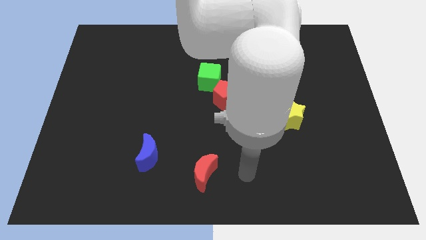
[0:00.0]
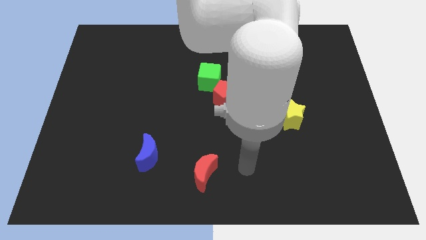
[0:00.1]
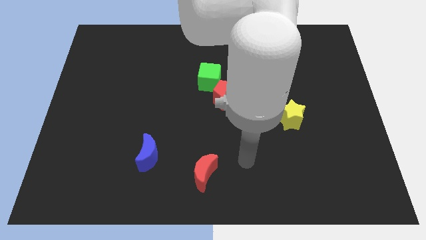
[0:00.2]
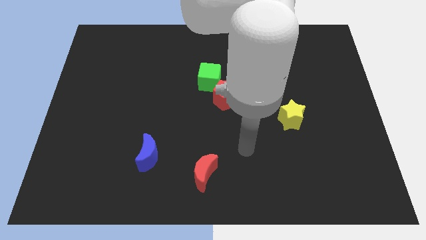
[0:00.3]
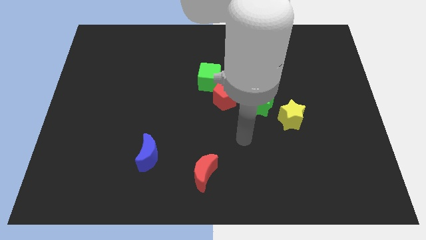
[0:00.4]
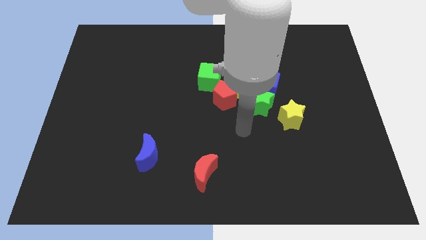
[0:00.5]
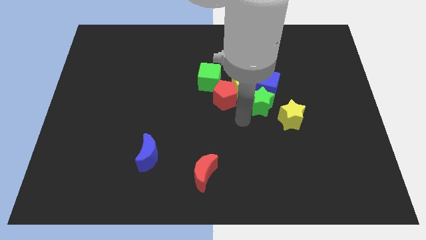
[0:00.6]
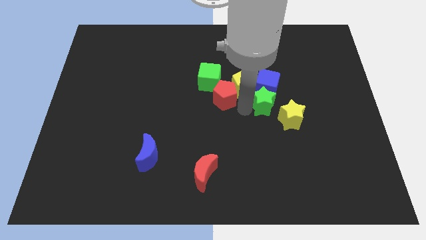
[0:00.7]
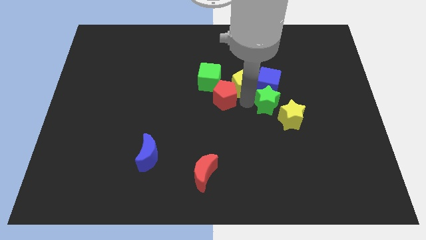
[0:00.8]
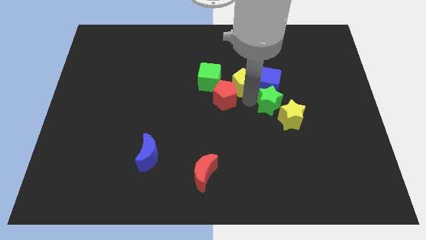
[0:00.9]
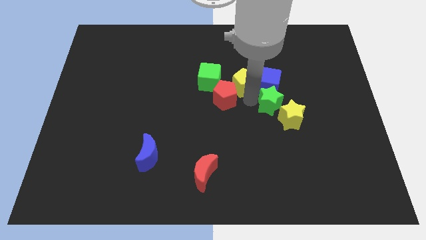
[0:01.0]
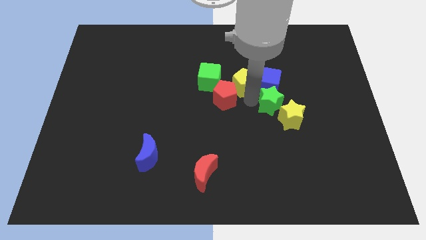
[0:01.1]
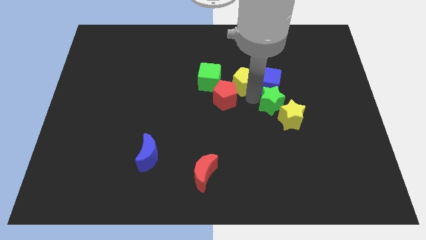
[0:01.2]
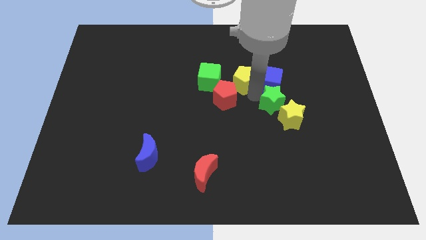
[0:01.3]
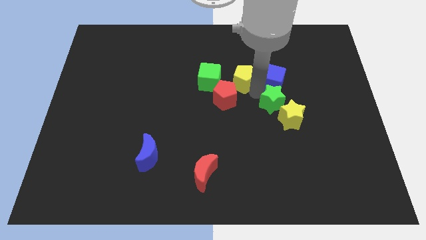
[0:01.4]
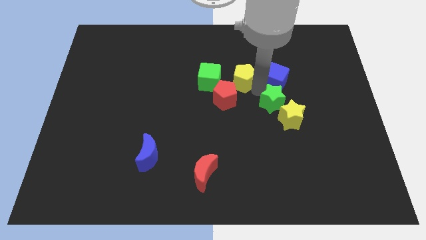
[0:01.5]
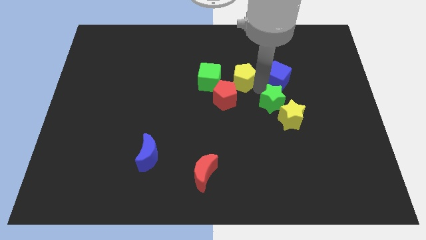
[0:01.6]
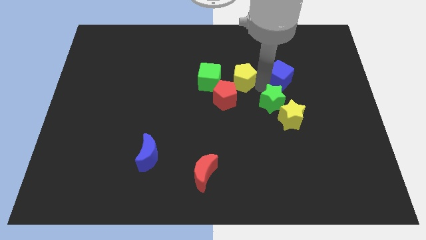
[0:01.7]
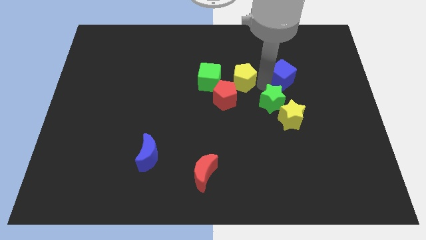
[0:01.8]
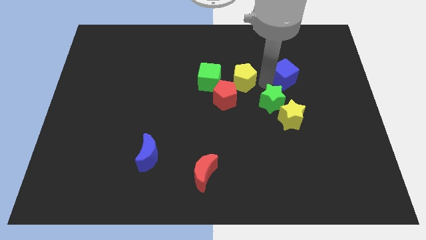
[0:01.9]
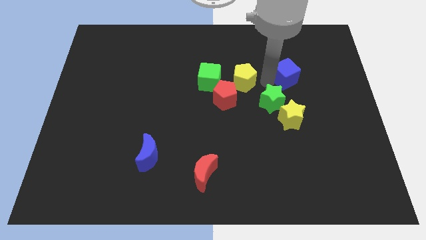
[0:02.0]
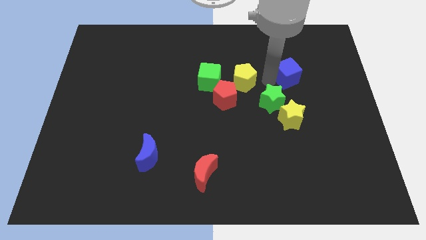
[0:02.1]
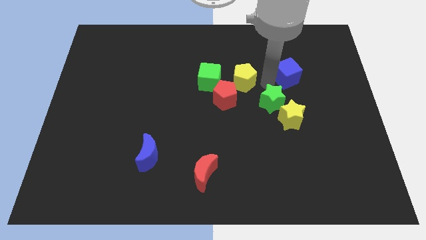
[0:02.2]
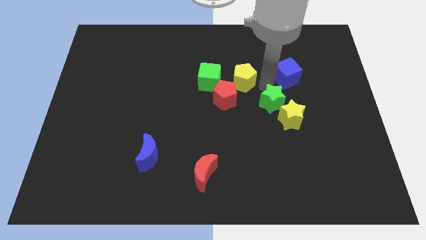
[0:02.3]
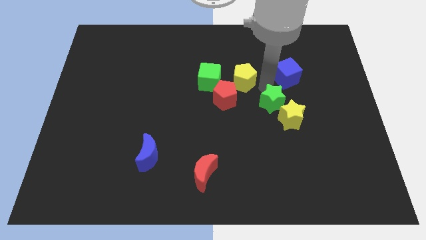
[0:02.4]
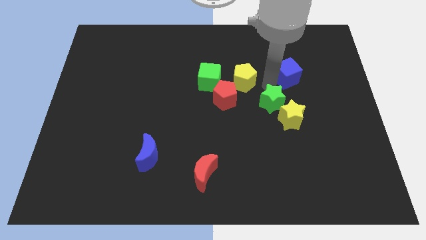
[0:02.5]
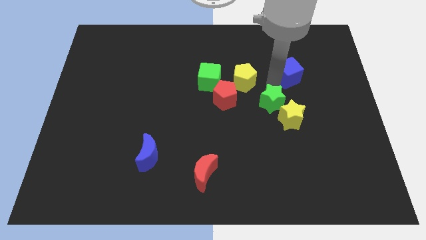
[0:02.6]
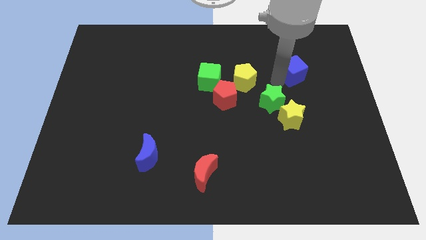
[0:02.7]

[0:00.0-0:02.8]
move the blue cube away from the yellow pentagon and green star

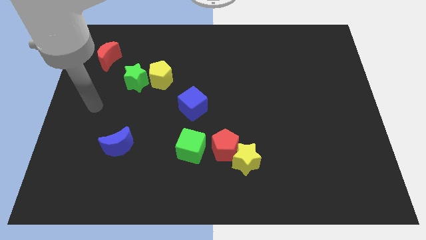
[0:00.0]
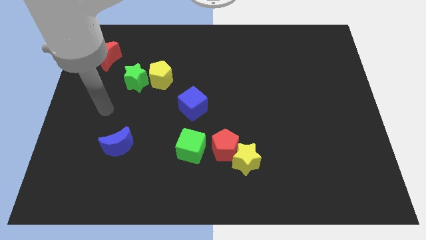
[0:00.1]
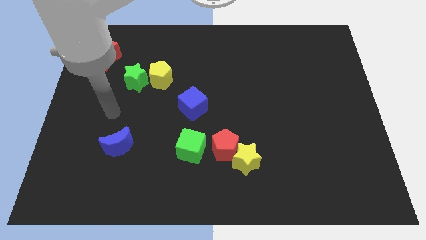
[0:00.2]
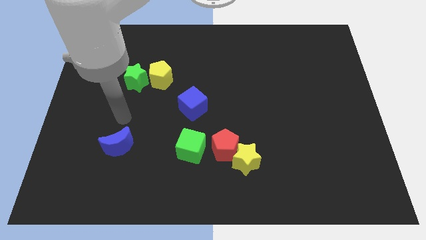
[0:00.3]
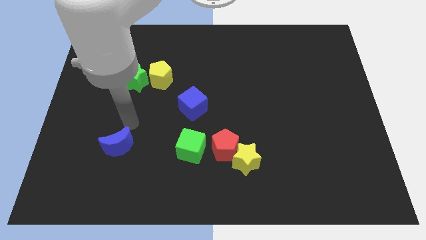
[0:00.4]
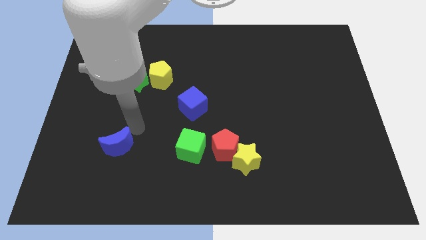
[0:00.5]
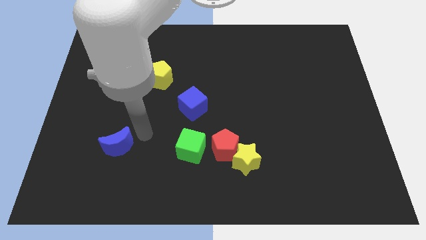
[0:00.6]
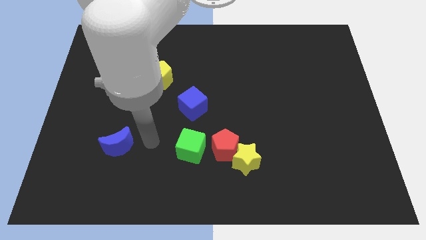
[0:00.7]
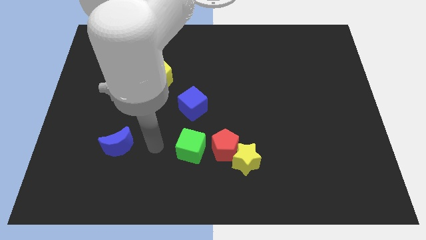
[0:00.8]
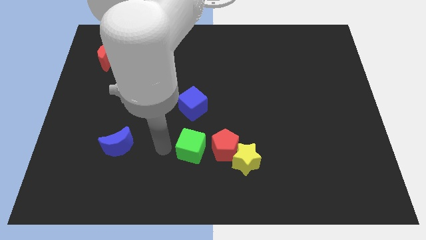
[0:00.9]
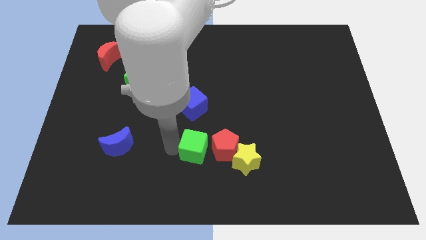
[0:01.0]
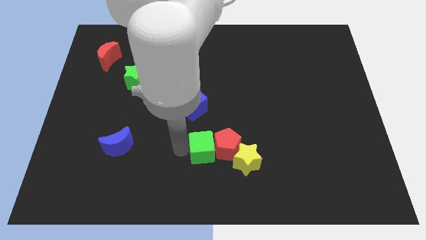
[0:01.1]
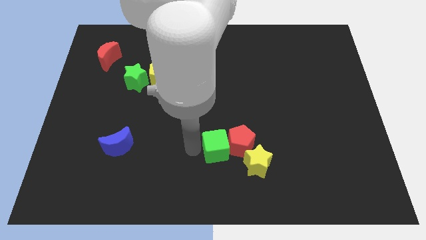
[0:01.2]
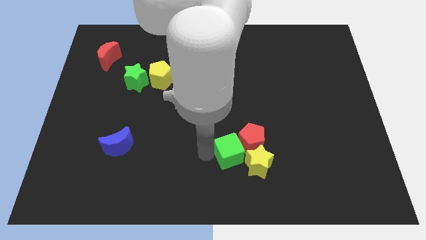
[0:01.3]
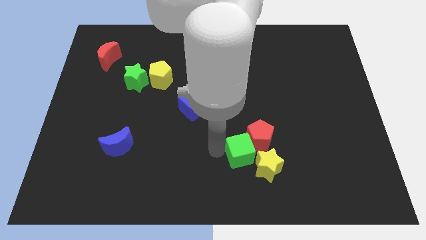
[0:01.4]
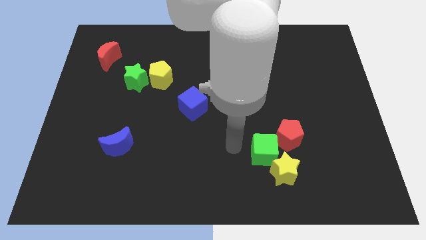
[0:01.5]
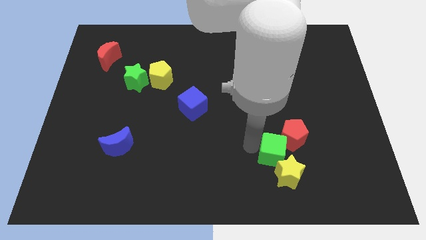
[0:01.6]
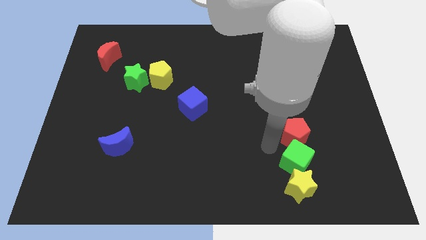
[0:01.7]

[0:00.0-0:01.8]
pull the yellow star apart from the red pentagon

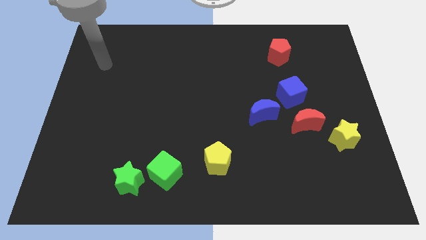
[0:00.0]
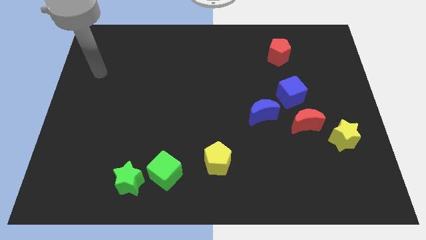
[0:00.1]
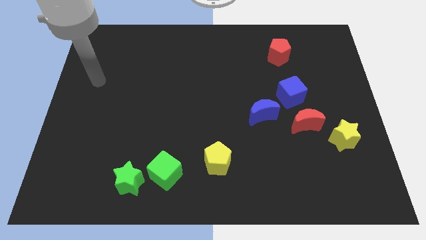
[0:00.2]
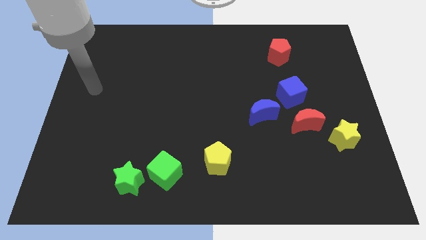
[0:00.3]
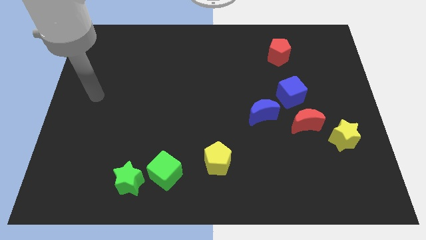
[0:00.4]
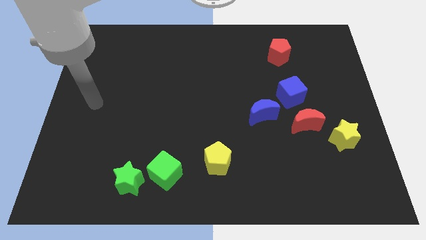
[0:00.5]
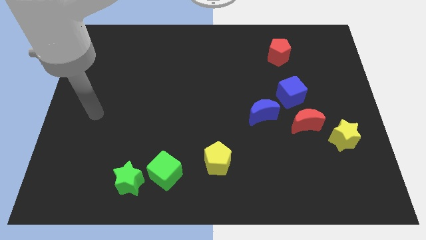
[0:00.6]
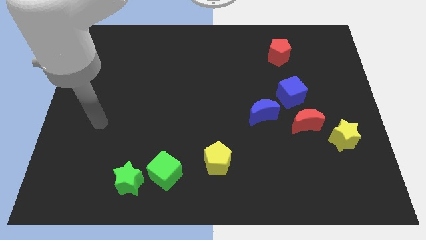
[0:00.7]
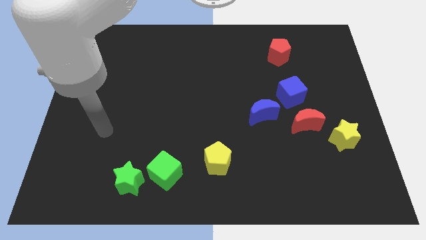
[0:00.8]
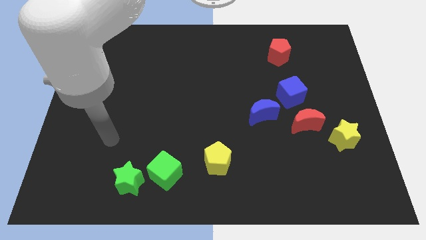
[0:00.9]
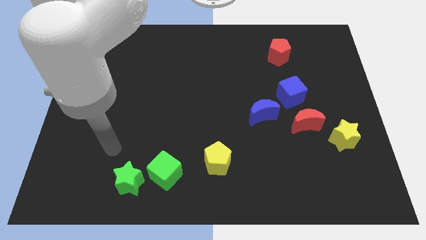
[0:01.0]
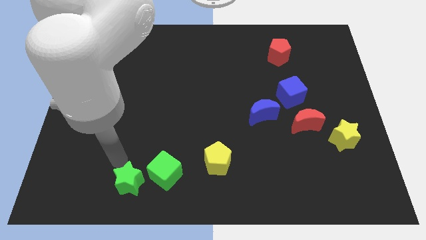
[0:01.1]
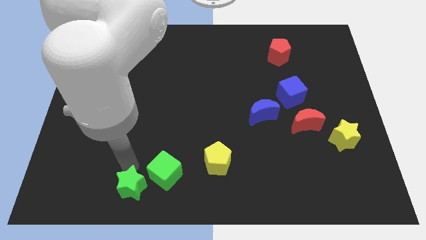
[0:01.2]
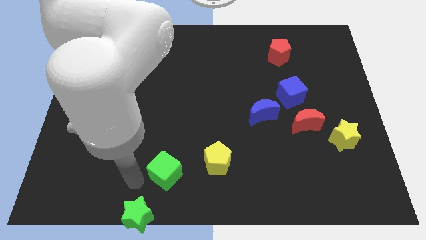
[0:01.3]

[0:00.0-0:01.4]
separate the green cube from the green star

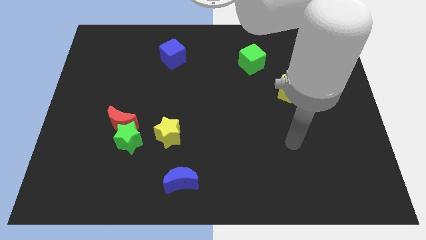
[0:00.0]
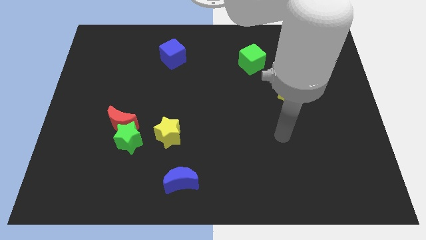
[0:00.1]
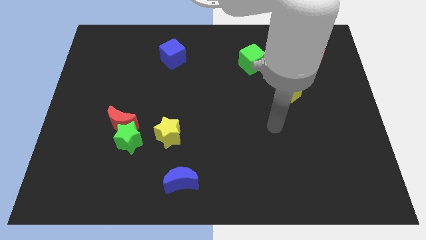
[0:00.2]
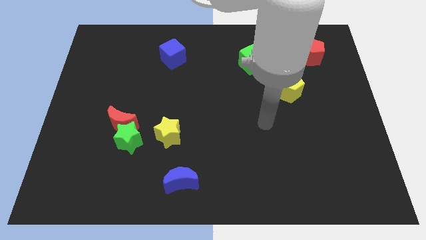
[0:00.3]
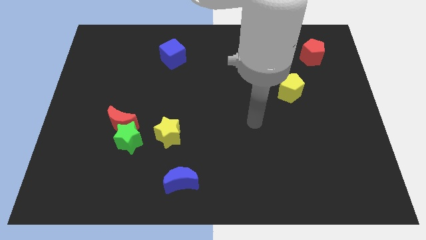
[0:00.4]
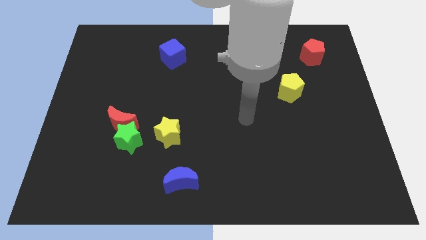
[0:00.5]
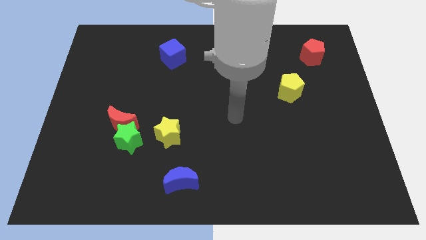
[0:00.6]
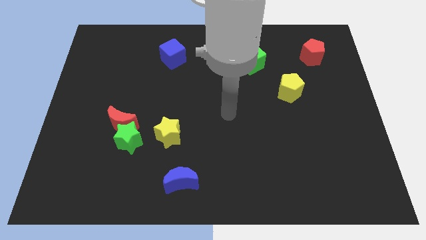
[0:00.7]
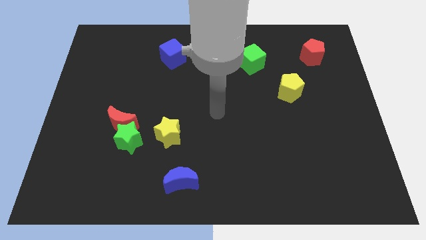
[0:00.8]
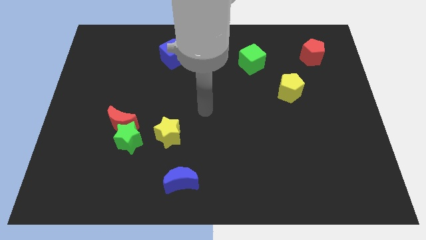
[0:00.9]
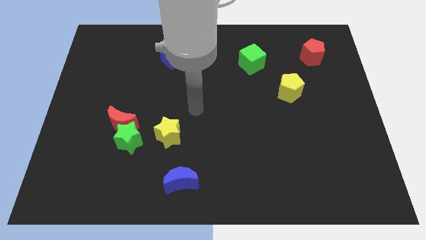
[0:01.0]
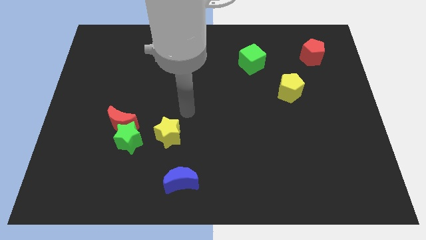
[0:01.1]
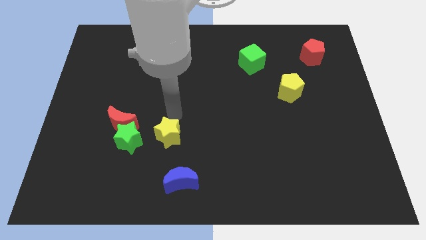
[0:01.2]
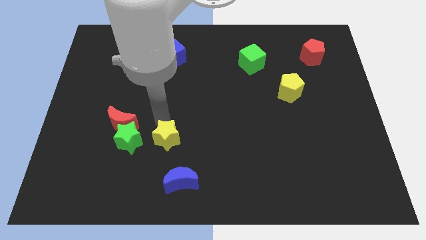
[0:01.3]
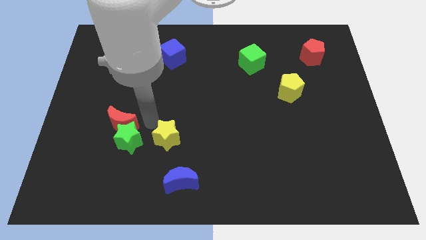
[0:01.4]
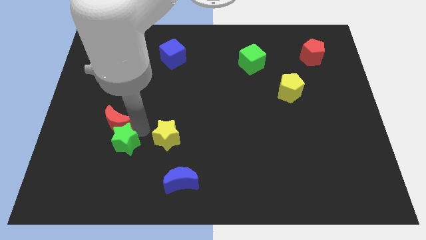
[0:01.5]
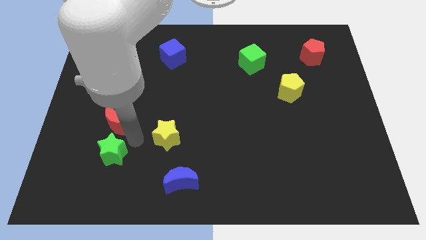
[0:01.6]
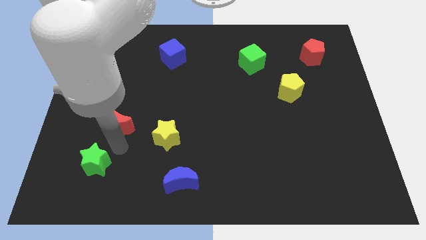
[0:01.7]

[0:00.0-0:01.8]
pull the red moon apart from the green star

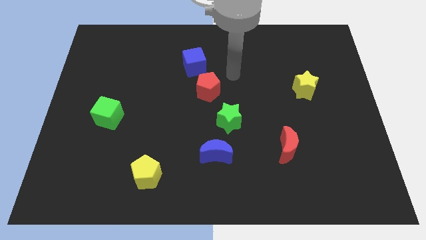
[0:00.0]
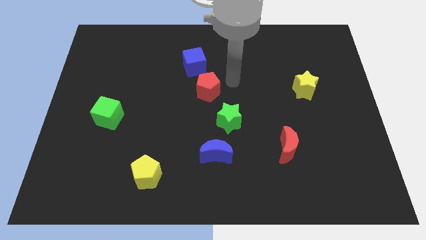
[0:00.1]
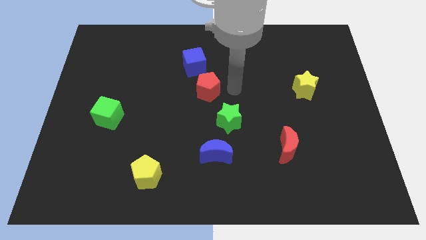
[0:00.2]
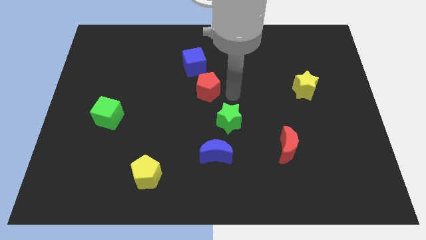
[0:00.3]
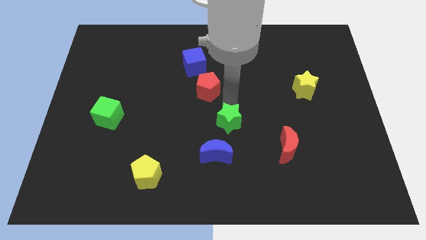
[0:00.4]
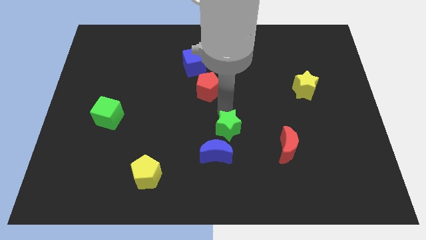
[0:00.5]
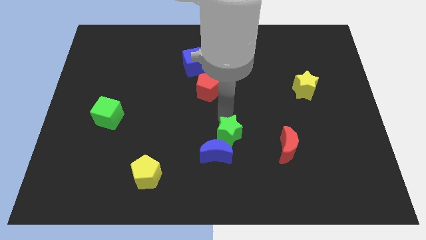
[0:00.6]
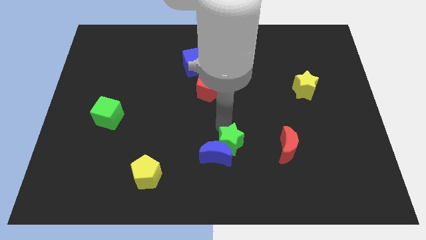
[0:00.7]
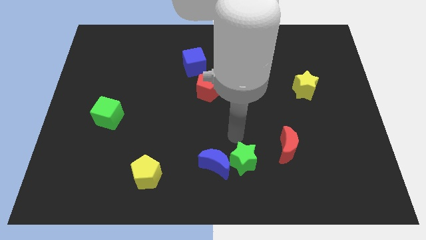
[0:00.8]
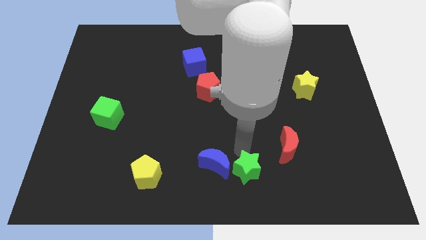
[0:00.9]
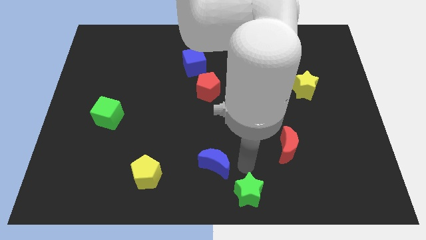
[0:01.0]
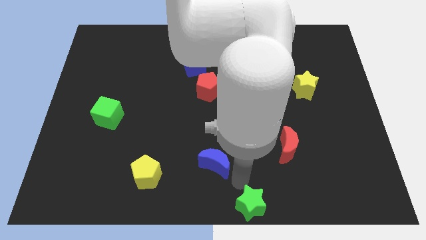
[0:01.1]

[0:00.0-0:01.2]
move the blue moon away from the green star

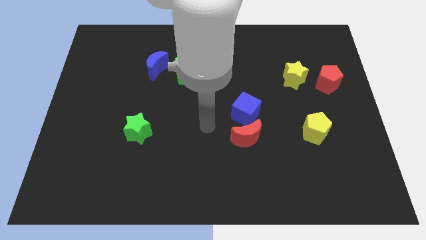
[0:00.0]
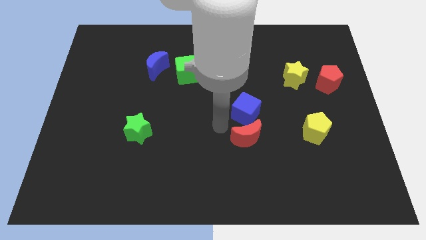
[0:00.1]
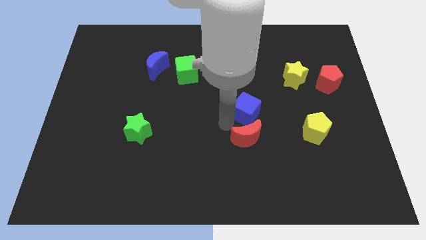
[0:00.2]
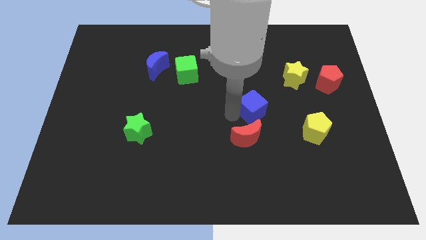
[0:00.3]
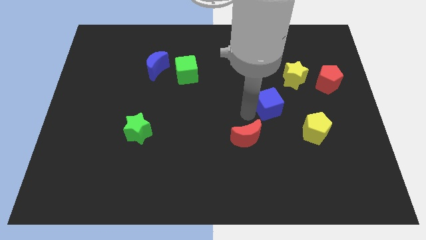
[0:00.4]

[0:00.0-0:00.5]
separate the red moon from the blue cube
